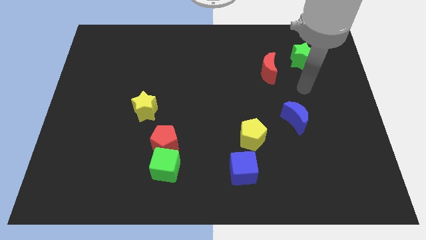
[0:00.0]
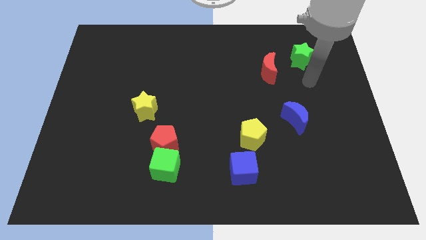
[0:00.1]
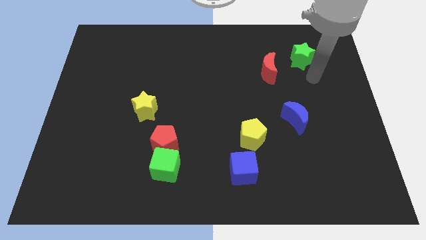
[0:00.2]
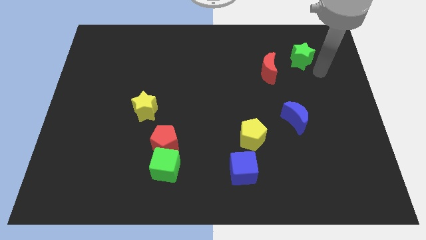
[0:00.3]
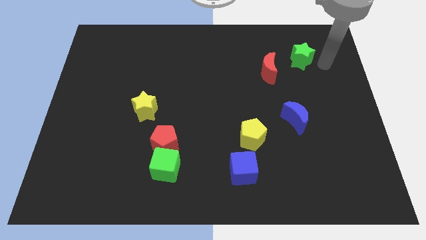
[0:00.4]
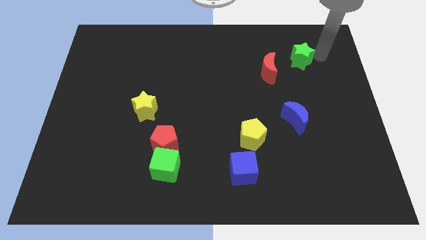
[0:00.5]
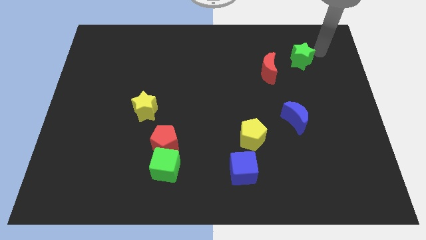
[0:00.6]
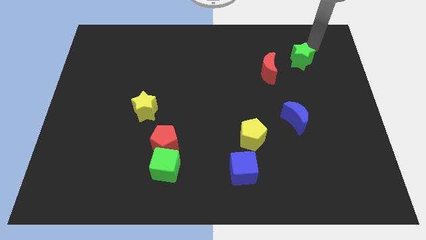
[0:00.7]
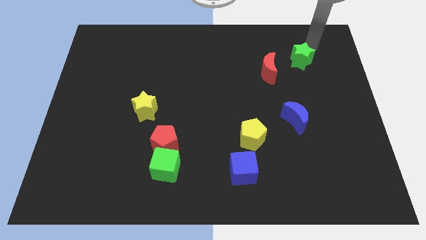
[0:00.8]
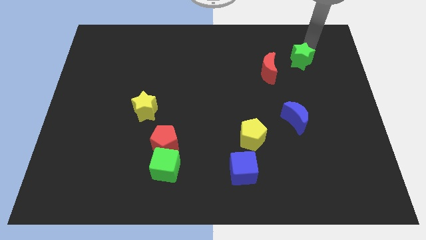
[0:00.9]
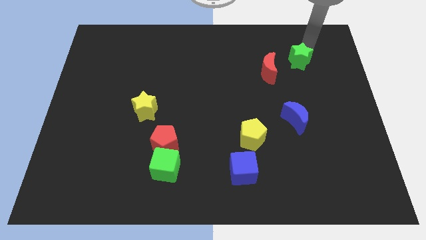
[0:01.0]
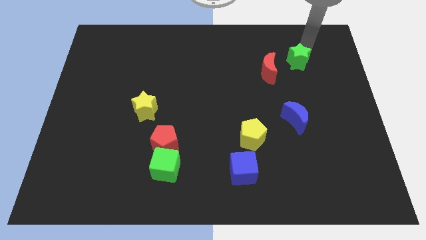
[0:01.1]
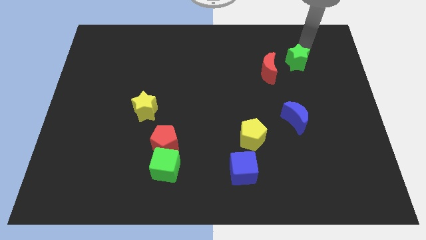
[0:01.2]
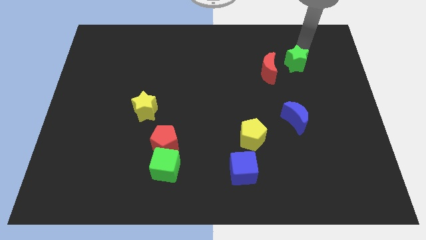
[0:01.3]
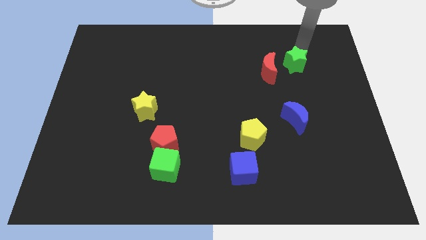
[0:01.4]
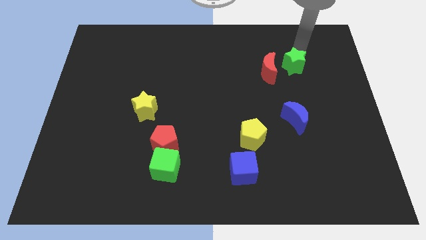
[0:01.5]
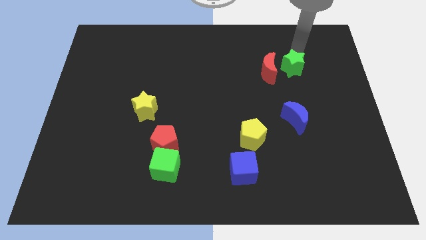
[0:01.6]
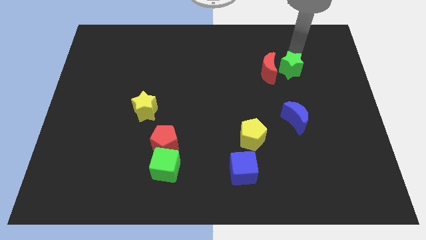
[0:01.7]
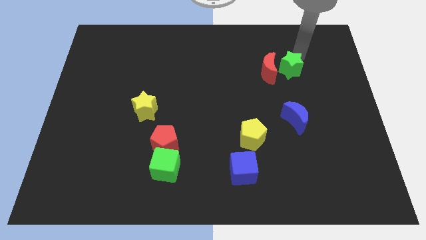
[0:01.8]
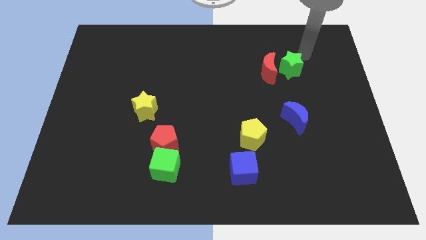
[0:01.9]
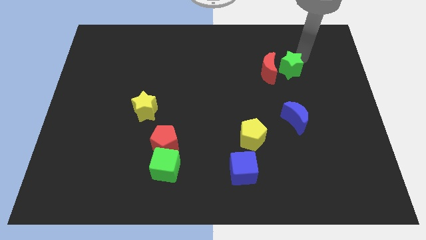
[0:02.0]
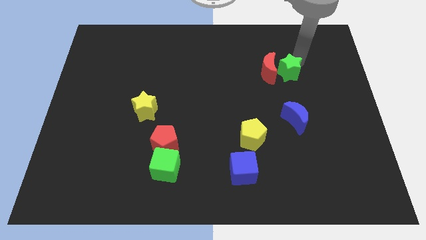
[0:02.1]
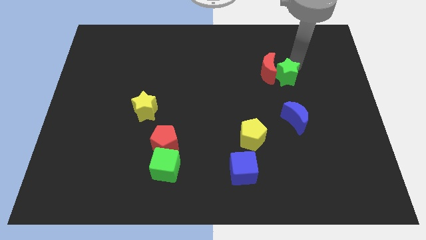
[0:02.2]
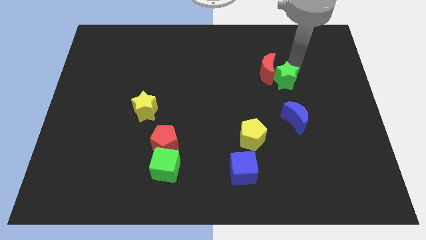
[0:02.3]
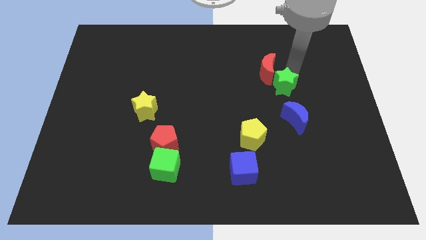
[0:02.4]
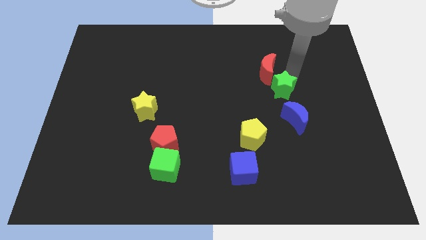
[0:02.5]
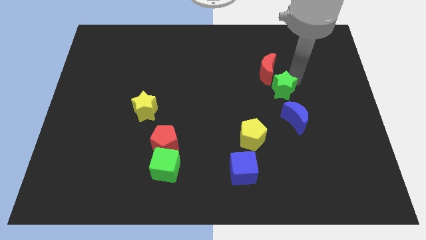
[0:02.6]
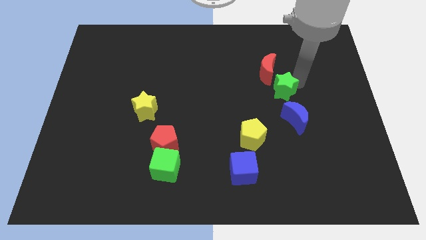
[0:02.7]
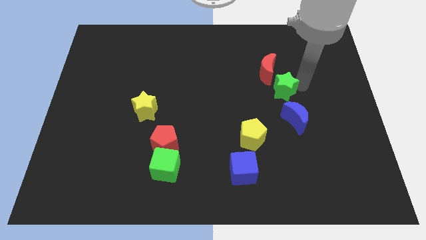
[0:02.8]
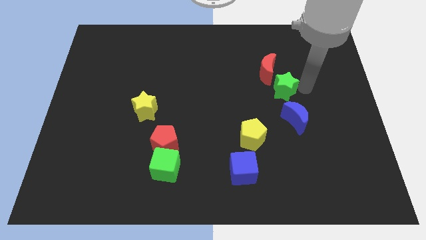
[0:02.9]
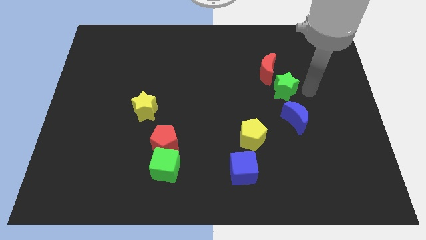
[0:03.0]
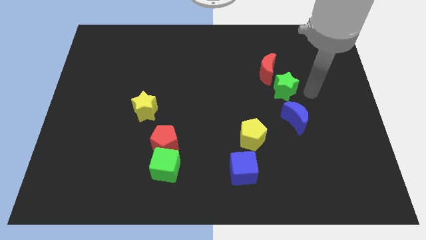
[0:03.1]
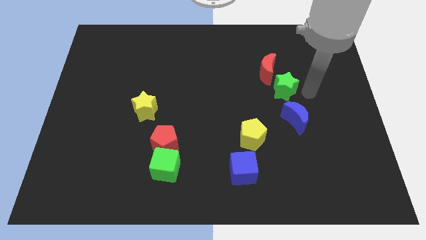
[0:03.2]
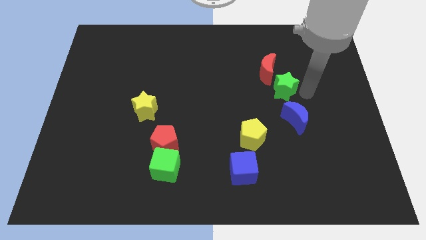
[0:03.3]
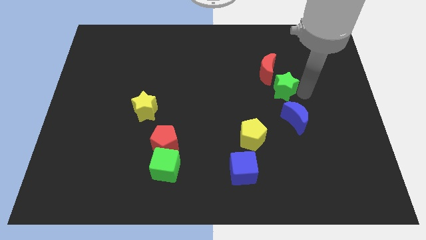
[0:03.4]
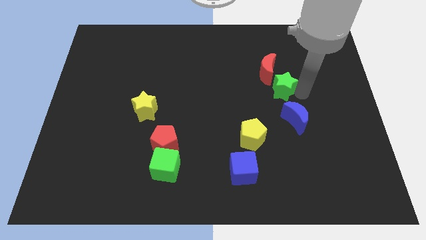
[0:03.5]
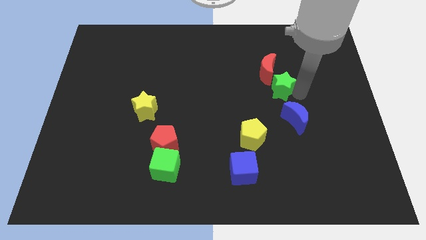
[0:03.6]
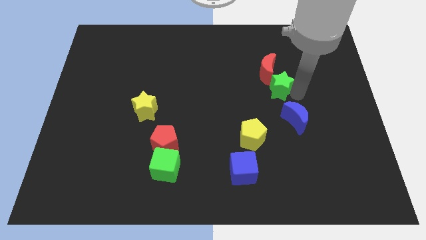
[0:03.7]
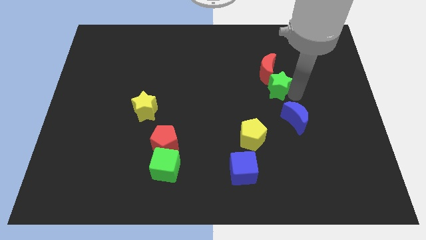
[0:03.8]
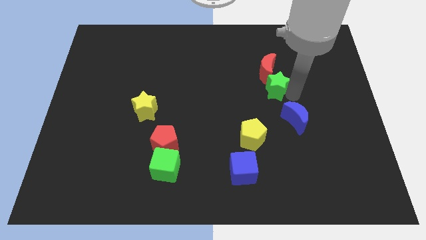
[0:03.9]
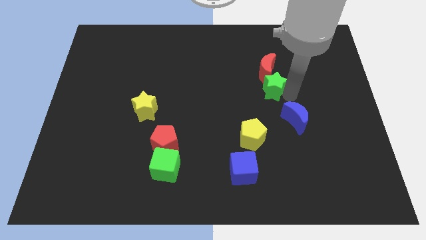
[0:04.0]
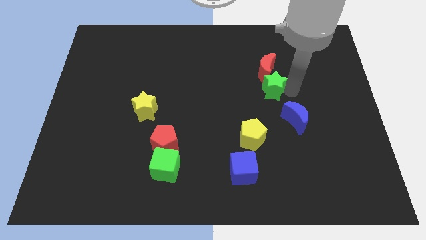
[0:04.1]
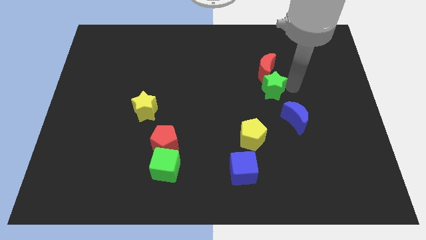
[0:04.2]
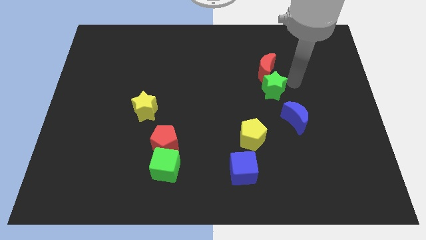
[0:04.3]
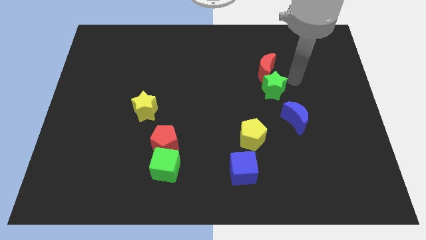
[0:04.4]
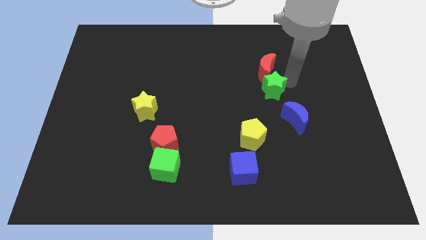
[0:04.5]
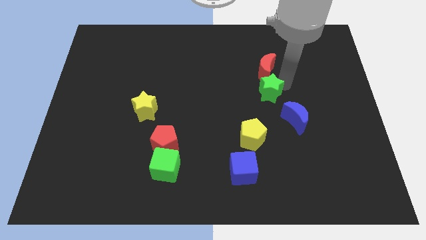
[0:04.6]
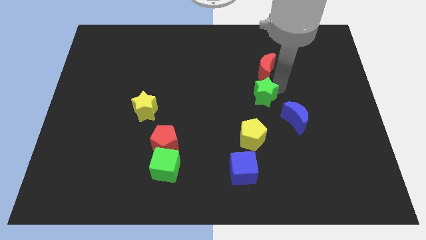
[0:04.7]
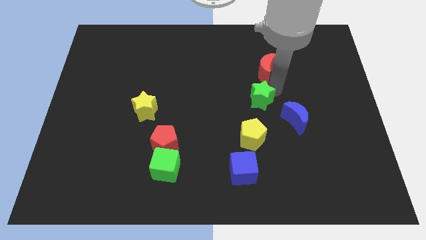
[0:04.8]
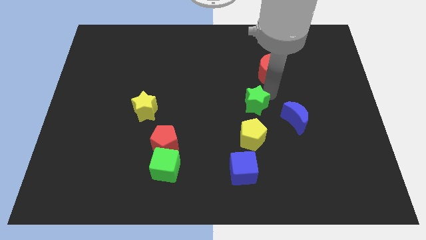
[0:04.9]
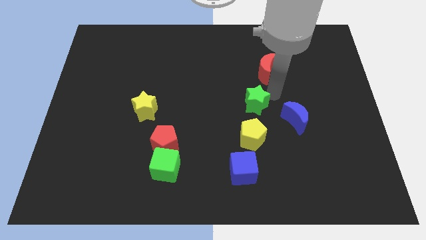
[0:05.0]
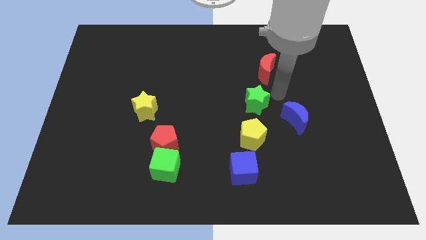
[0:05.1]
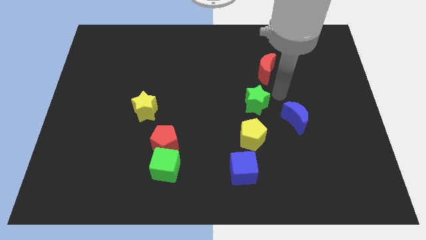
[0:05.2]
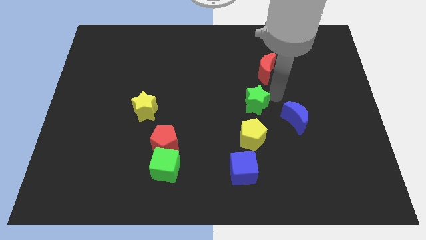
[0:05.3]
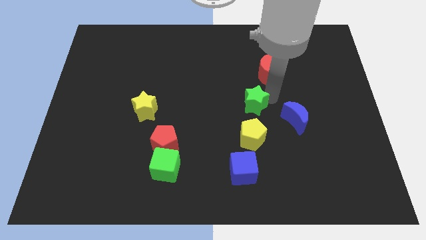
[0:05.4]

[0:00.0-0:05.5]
slide the green star downwards and to the left

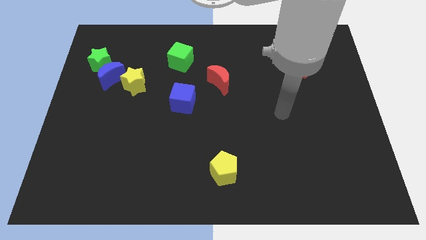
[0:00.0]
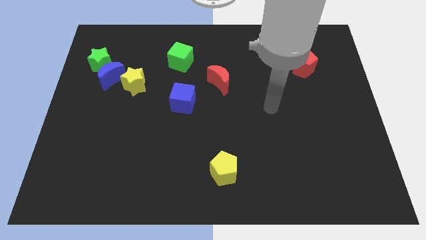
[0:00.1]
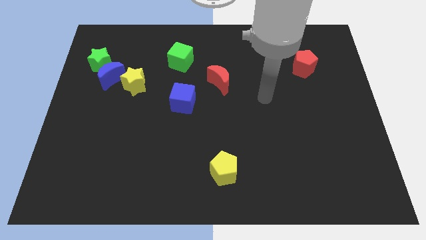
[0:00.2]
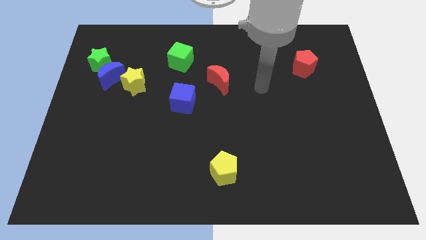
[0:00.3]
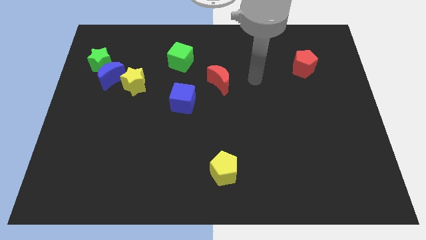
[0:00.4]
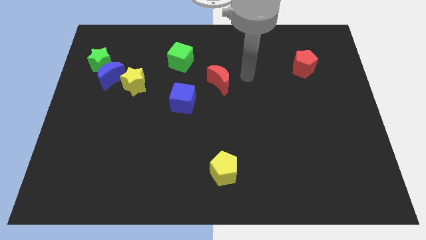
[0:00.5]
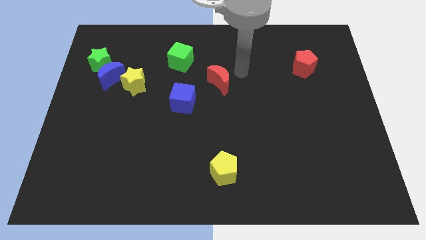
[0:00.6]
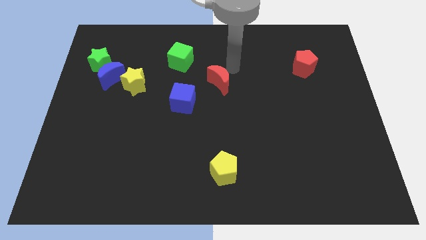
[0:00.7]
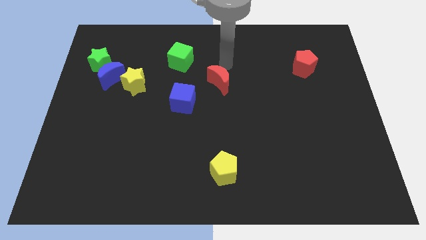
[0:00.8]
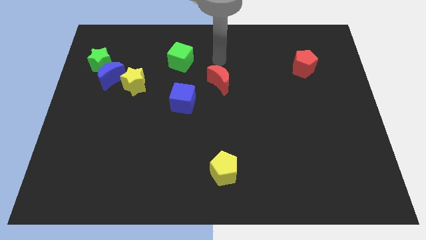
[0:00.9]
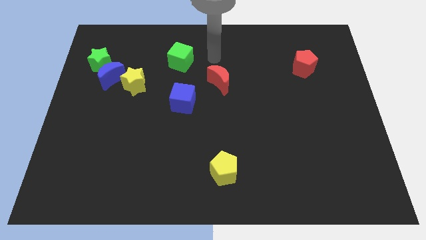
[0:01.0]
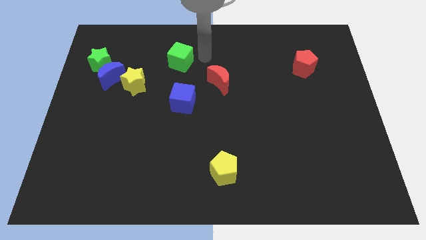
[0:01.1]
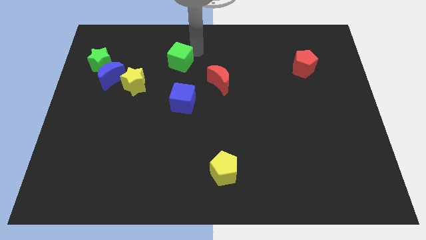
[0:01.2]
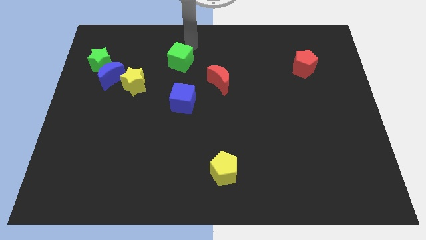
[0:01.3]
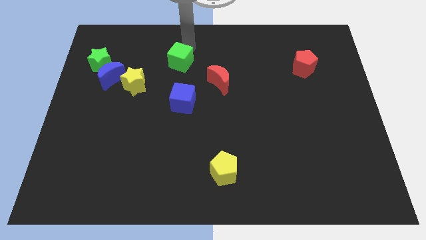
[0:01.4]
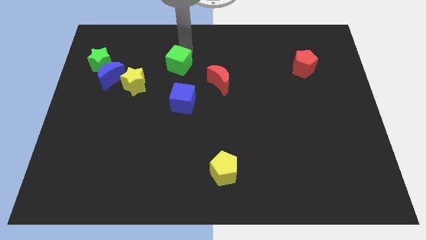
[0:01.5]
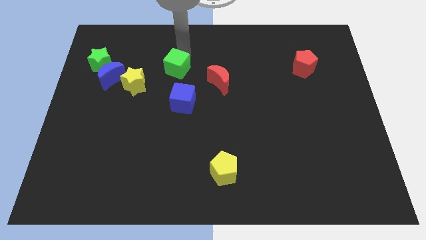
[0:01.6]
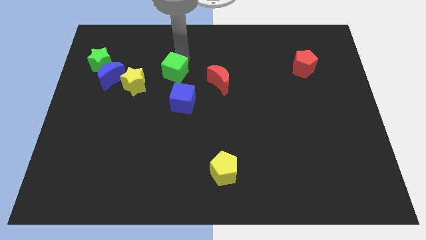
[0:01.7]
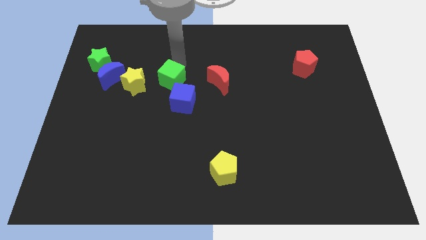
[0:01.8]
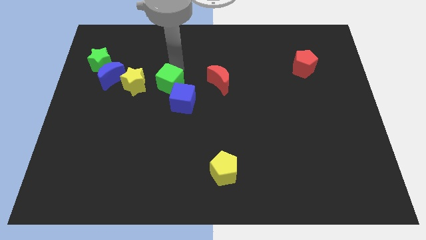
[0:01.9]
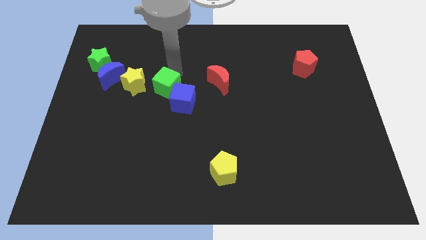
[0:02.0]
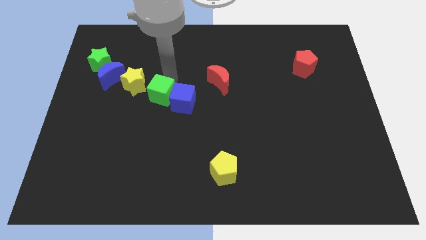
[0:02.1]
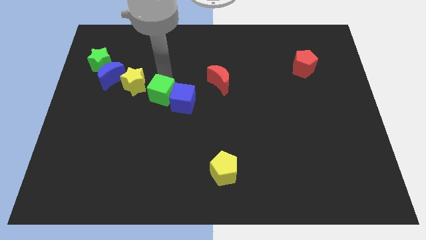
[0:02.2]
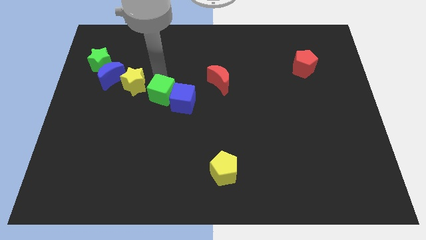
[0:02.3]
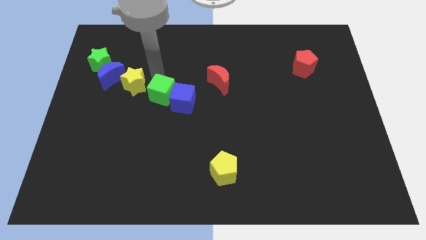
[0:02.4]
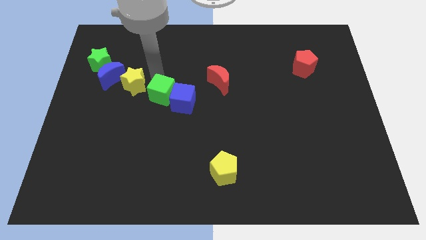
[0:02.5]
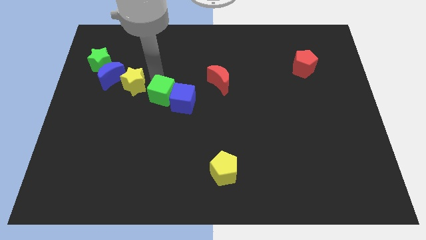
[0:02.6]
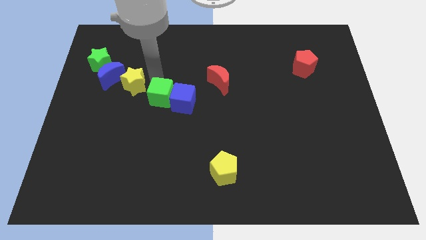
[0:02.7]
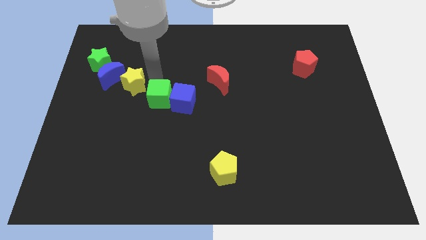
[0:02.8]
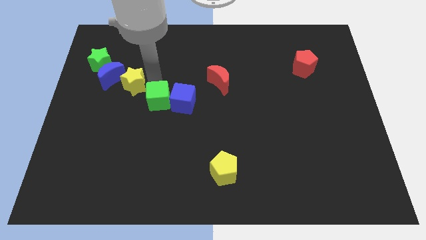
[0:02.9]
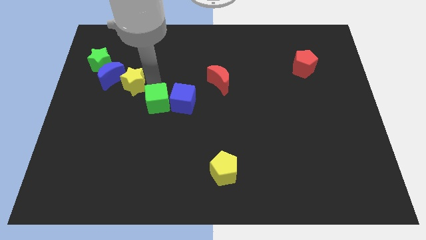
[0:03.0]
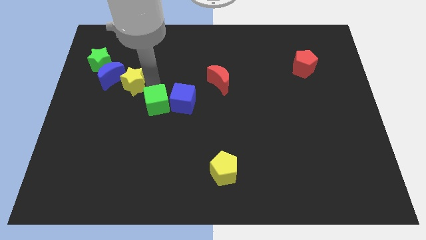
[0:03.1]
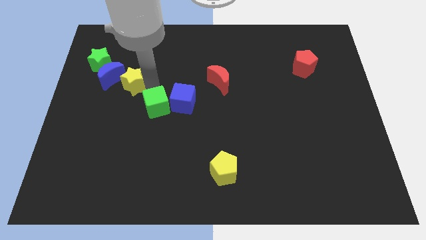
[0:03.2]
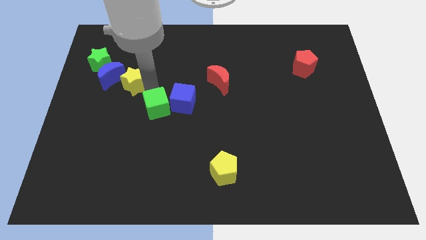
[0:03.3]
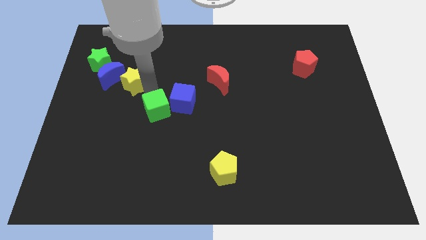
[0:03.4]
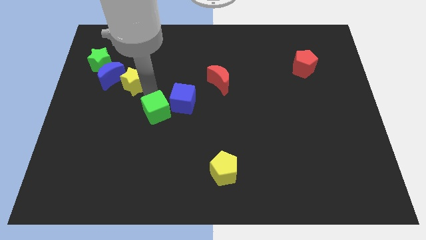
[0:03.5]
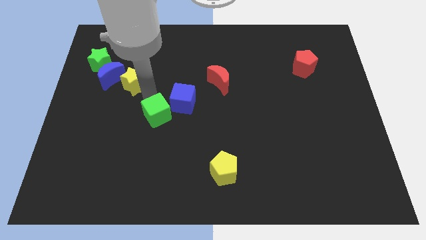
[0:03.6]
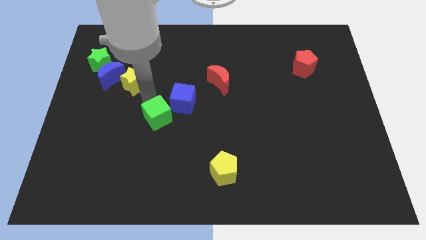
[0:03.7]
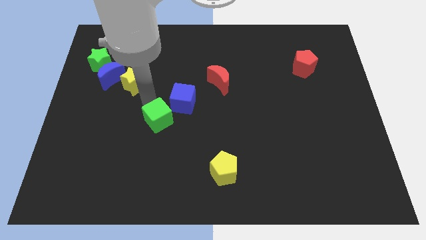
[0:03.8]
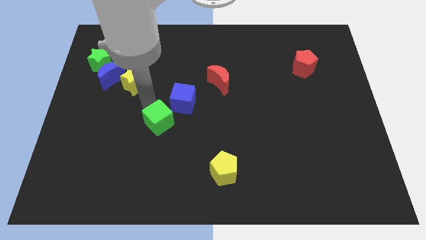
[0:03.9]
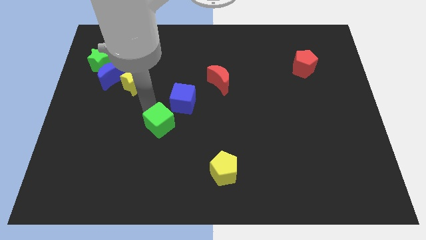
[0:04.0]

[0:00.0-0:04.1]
slide the green cube down
